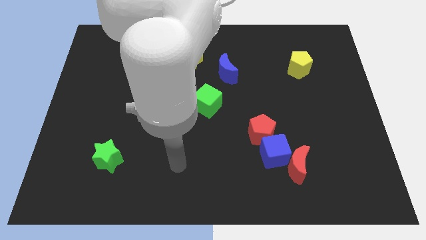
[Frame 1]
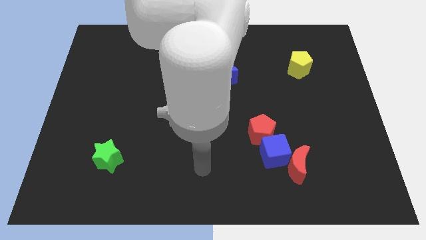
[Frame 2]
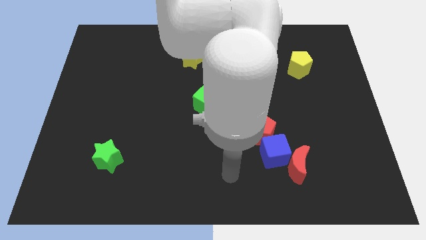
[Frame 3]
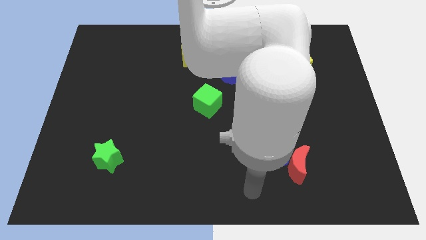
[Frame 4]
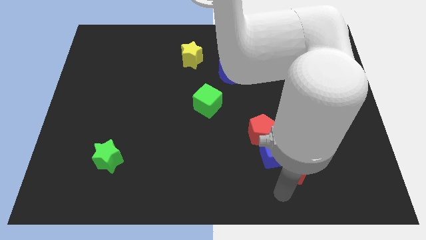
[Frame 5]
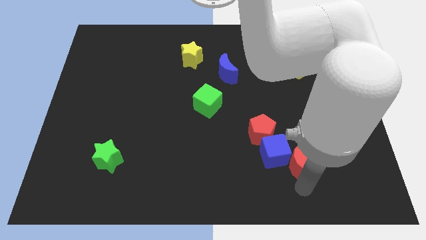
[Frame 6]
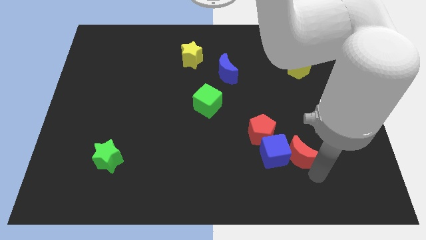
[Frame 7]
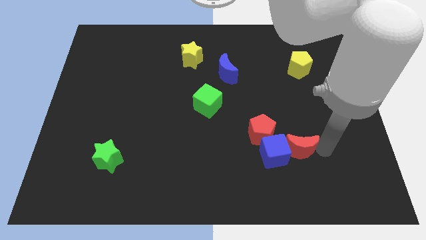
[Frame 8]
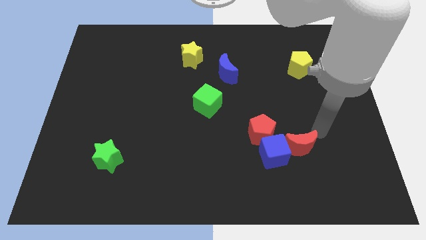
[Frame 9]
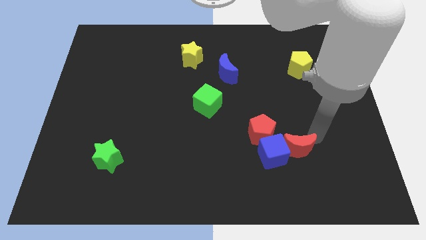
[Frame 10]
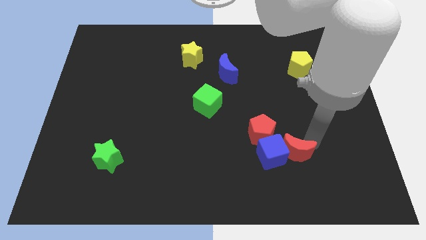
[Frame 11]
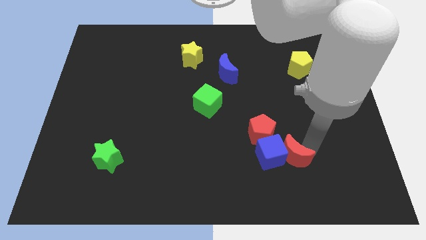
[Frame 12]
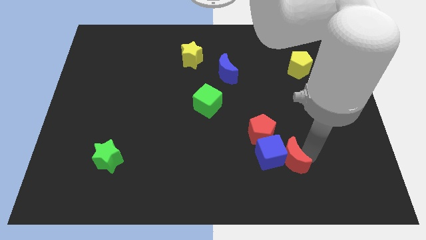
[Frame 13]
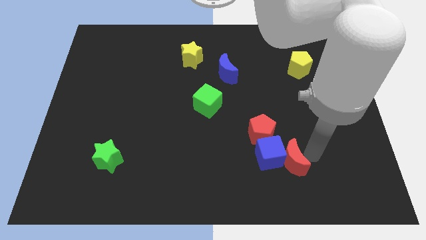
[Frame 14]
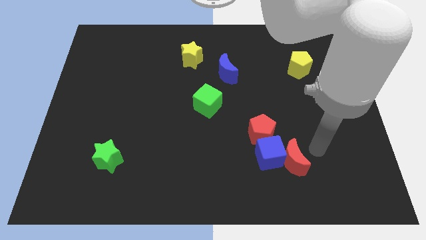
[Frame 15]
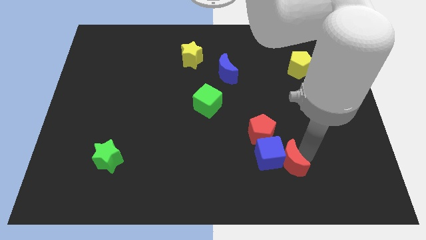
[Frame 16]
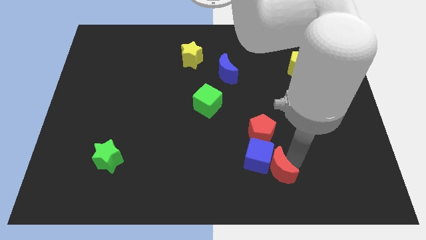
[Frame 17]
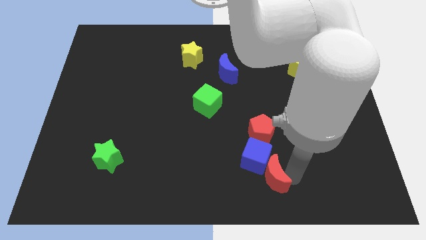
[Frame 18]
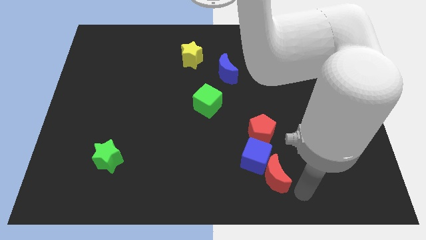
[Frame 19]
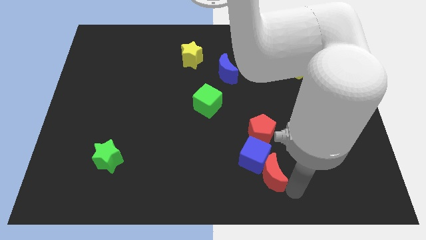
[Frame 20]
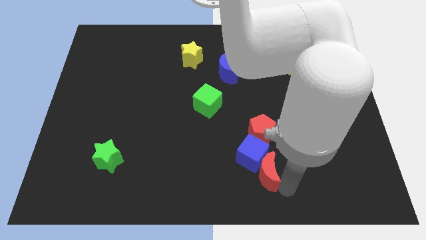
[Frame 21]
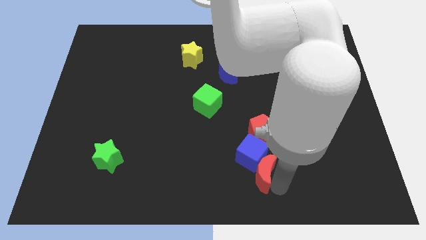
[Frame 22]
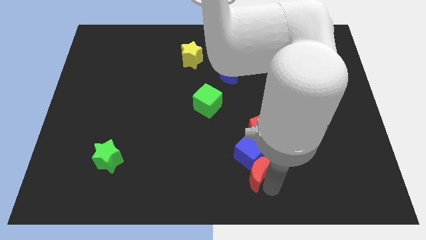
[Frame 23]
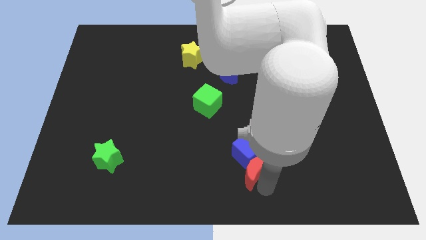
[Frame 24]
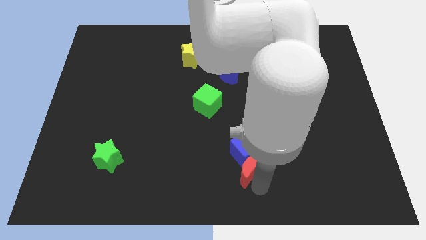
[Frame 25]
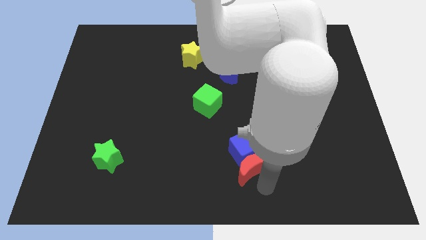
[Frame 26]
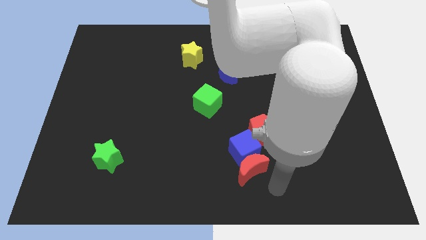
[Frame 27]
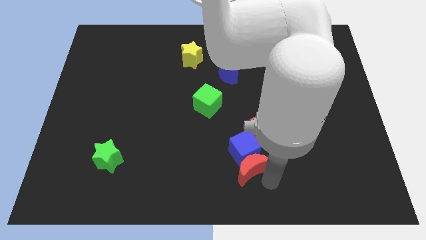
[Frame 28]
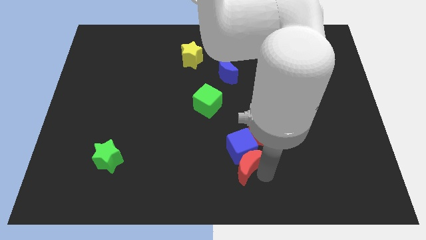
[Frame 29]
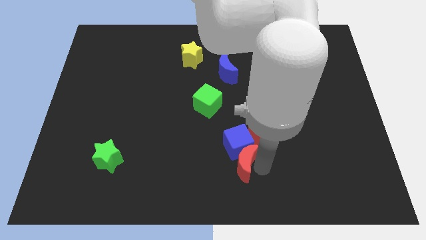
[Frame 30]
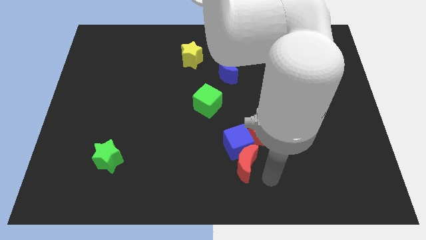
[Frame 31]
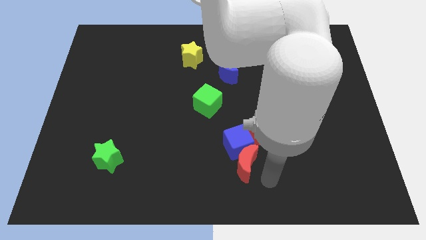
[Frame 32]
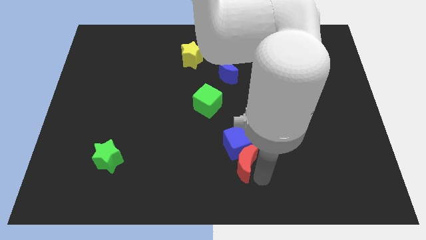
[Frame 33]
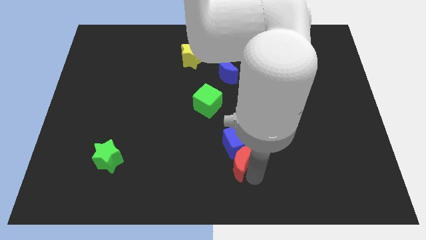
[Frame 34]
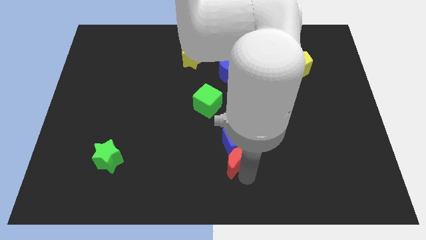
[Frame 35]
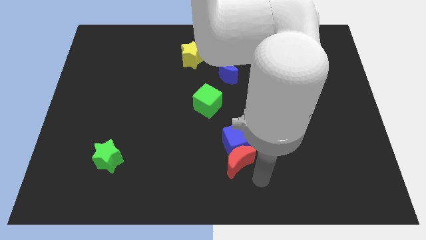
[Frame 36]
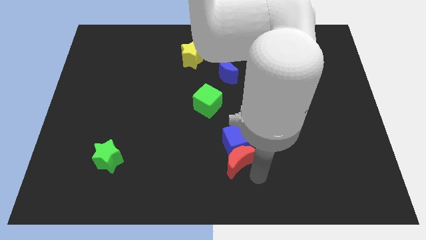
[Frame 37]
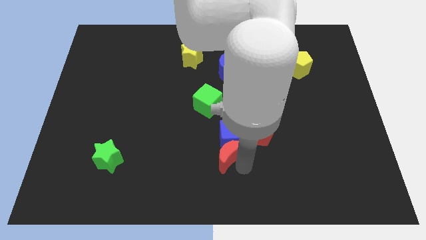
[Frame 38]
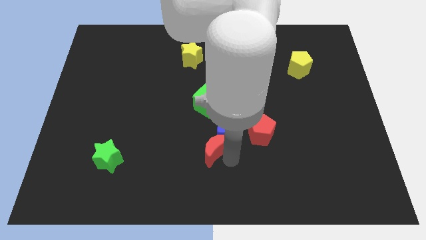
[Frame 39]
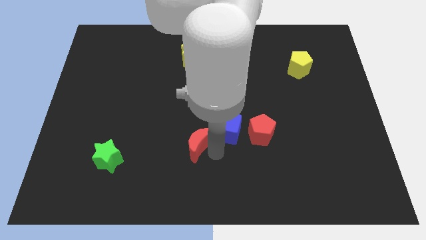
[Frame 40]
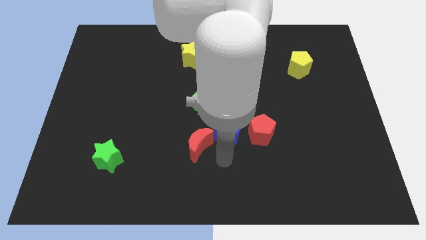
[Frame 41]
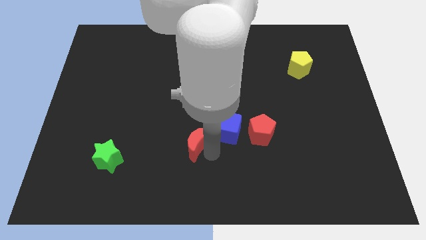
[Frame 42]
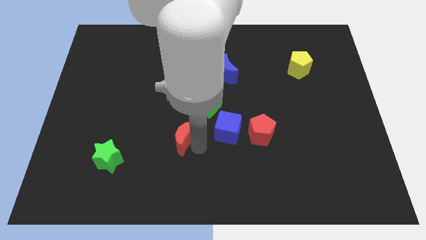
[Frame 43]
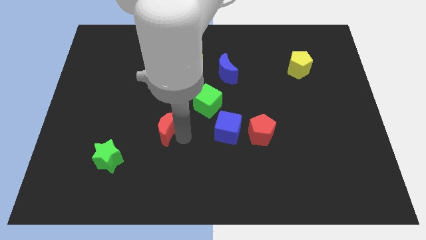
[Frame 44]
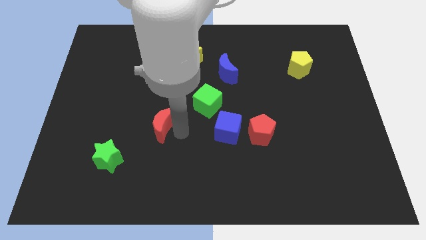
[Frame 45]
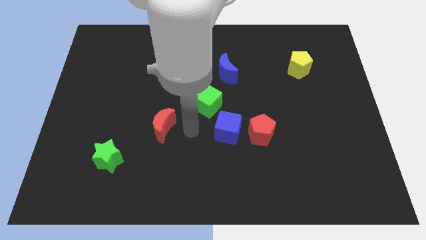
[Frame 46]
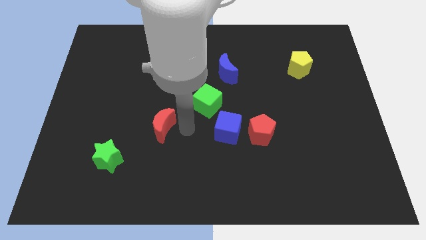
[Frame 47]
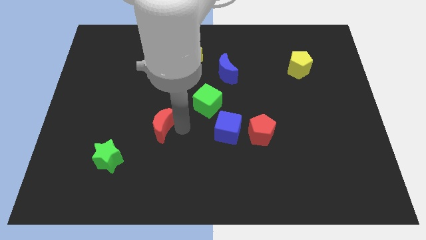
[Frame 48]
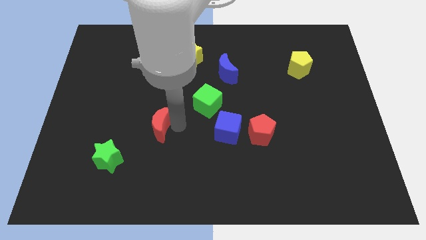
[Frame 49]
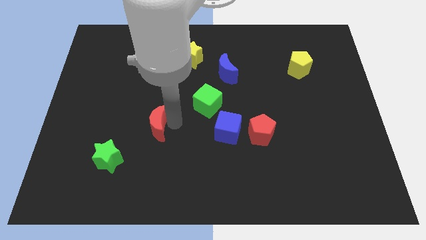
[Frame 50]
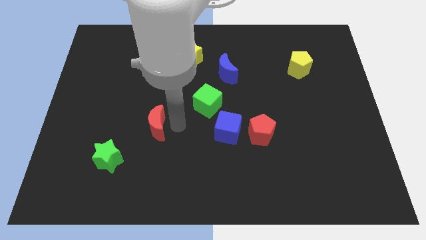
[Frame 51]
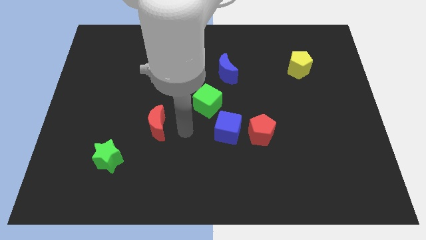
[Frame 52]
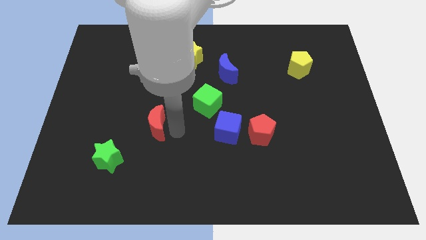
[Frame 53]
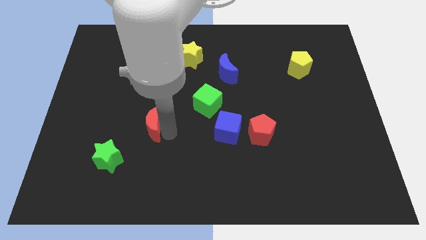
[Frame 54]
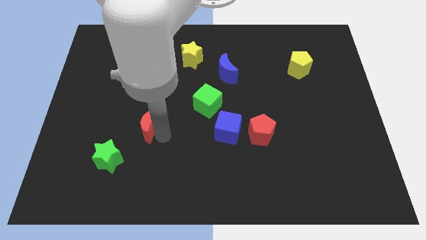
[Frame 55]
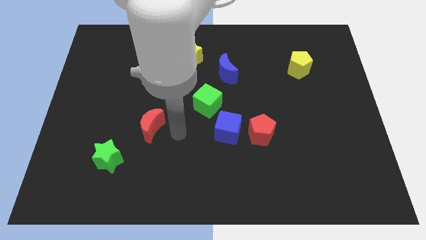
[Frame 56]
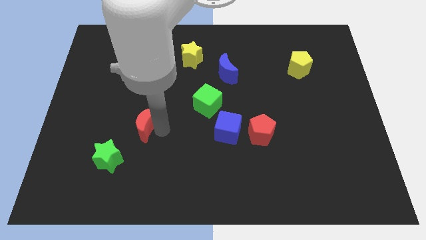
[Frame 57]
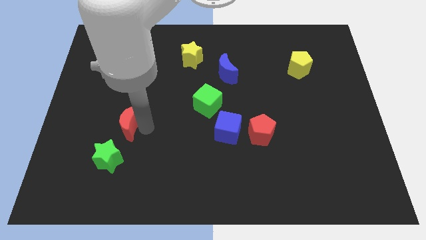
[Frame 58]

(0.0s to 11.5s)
slide the red moon to the top of the green star

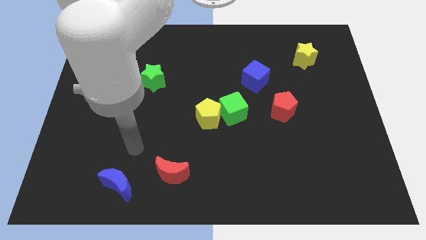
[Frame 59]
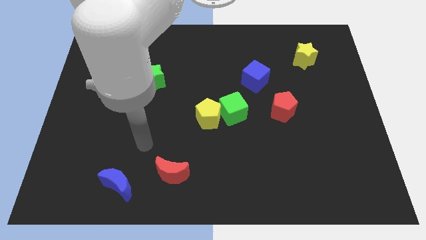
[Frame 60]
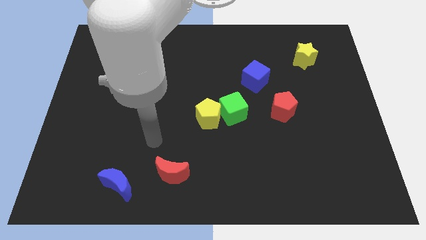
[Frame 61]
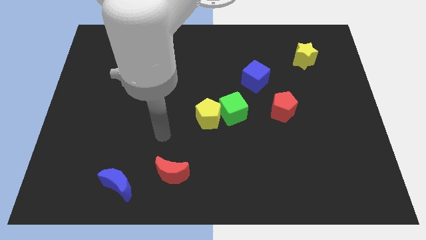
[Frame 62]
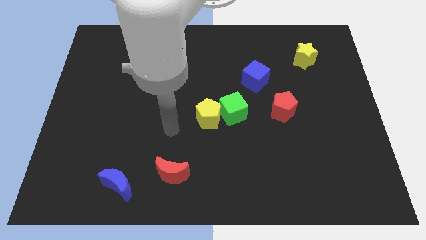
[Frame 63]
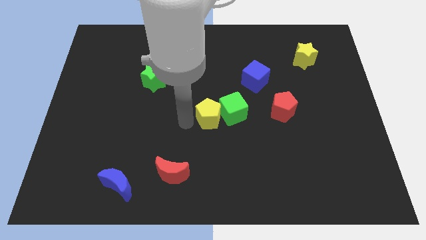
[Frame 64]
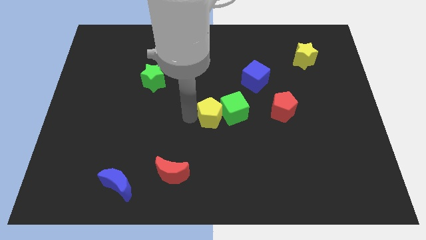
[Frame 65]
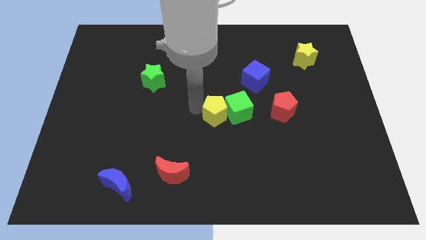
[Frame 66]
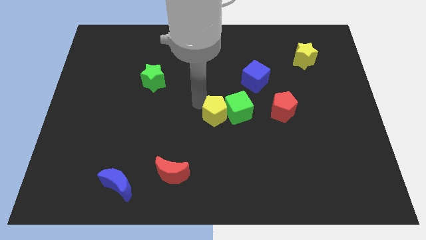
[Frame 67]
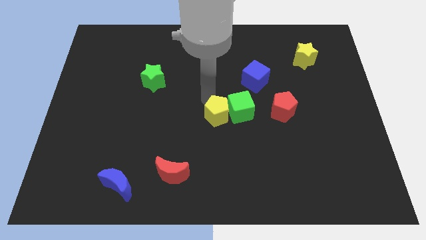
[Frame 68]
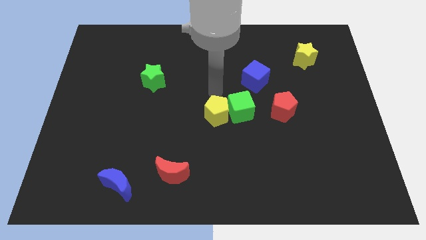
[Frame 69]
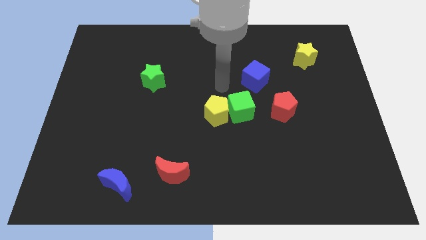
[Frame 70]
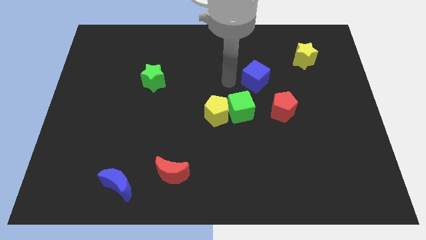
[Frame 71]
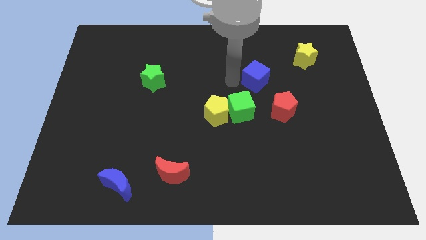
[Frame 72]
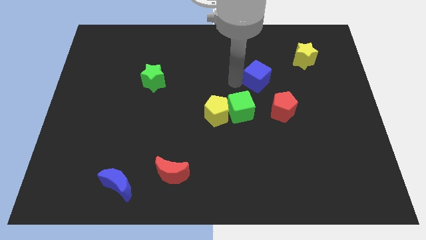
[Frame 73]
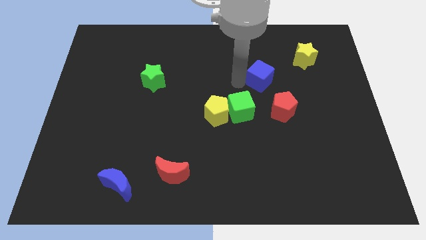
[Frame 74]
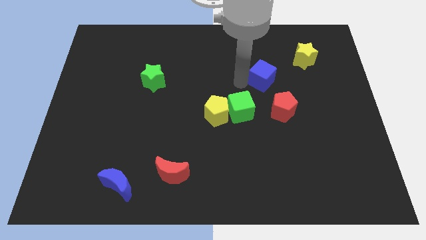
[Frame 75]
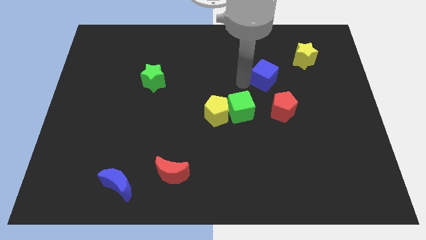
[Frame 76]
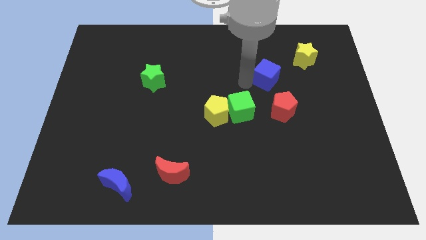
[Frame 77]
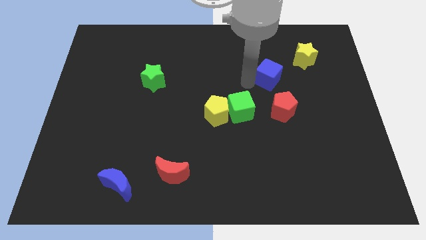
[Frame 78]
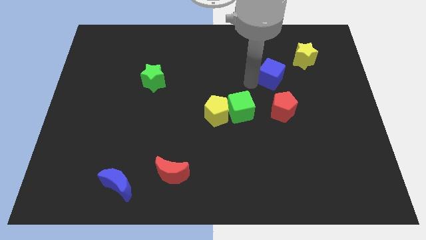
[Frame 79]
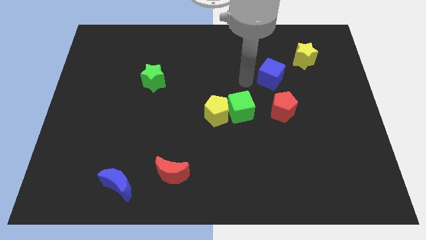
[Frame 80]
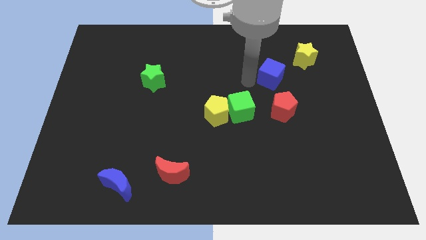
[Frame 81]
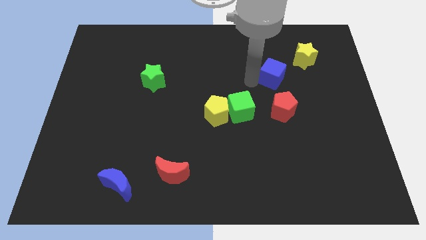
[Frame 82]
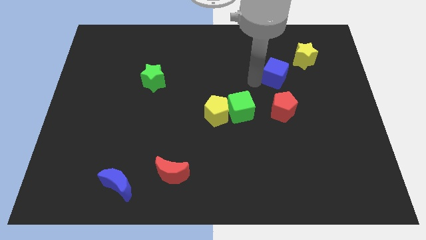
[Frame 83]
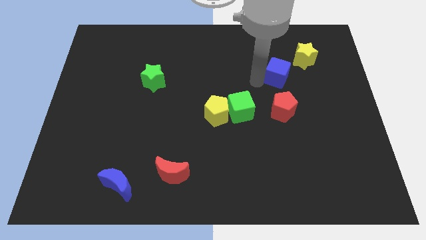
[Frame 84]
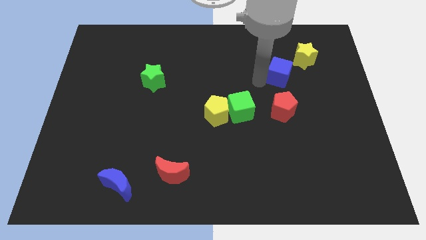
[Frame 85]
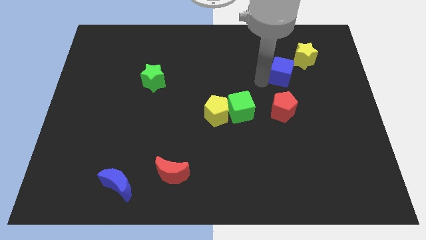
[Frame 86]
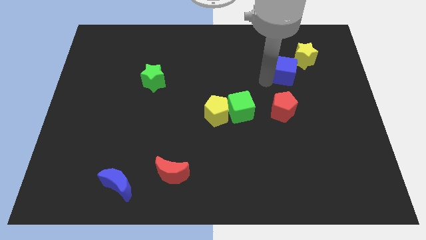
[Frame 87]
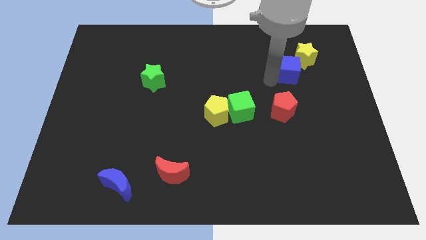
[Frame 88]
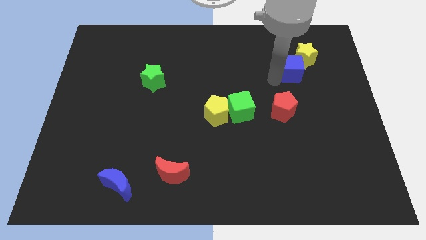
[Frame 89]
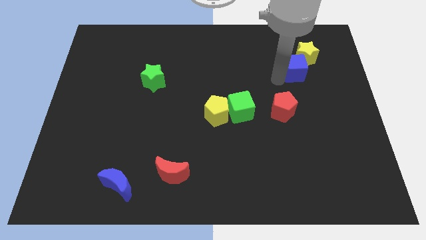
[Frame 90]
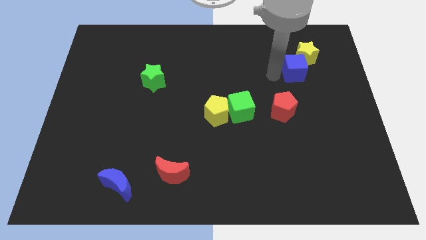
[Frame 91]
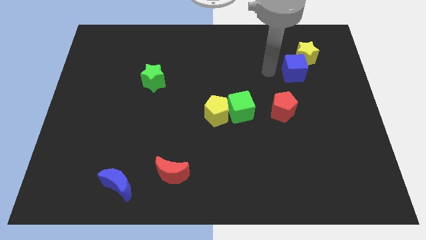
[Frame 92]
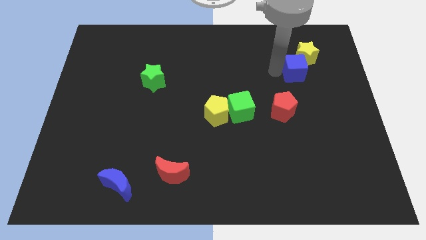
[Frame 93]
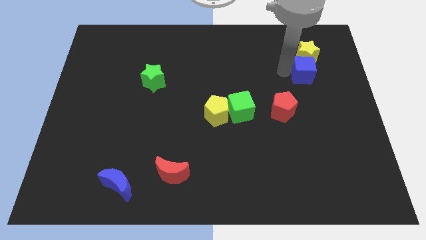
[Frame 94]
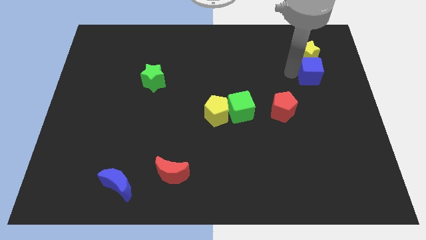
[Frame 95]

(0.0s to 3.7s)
slide the blue cube to the bottom right of the yellow star
